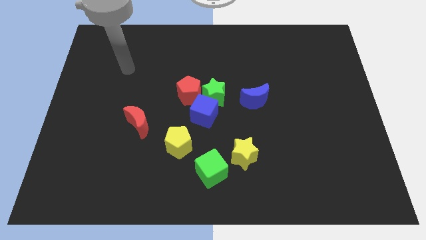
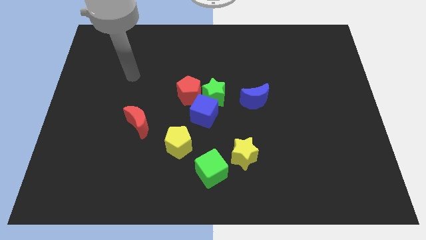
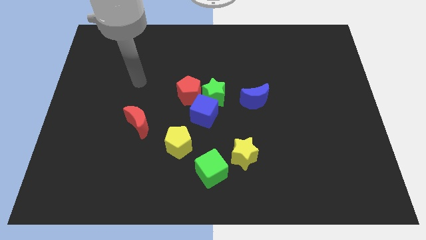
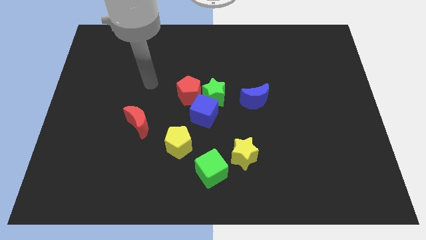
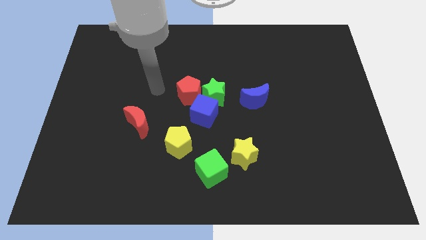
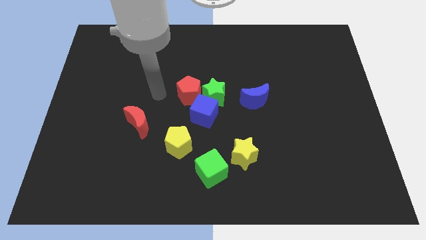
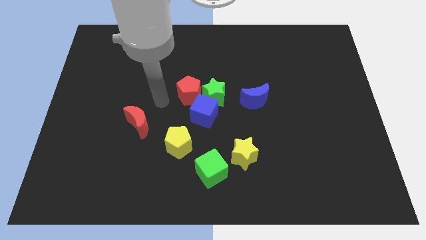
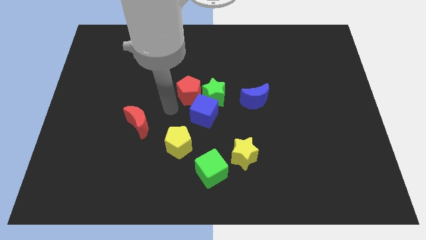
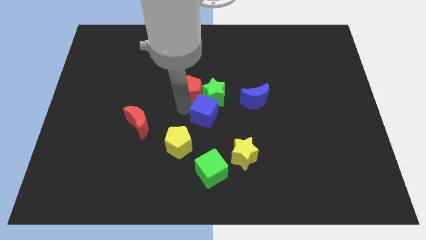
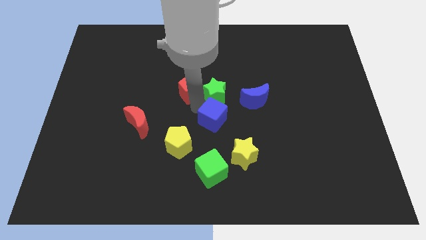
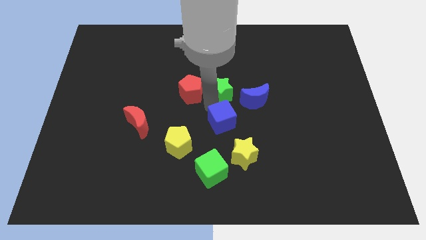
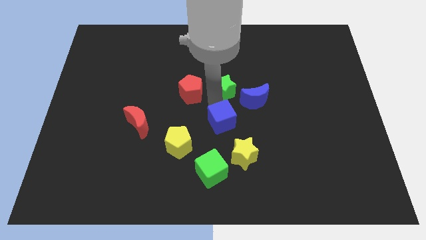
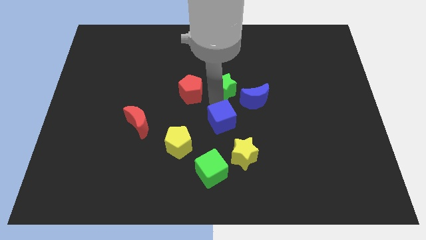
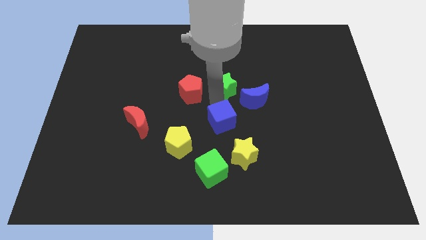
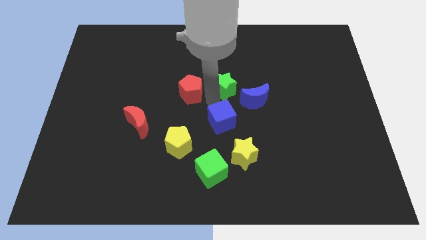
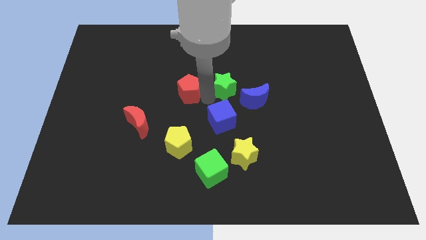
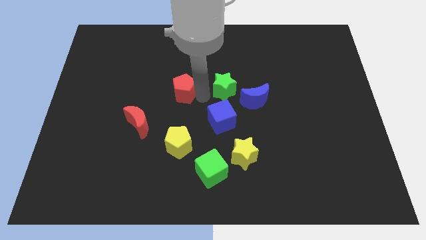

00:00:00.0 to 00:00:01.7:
pull the red pentagon apart from the green star and blue cube

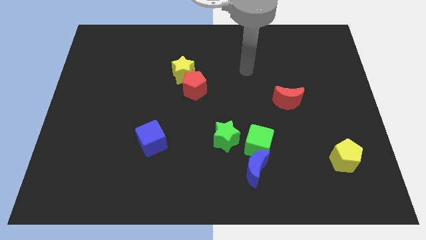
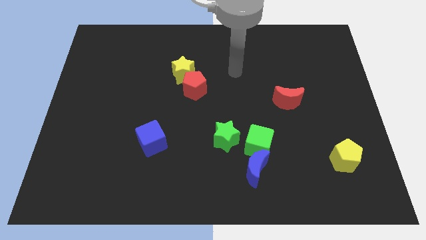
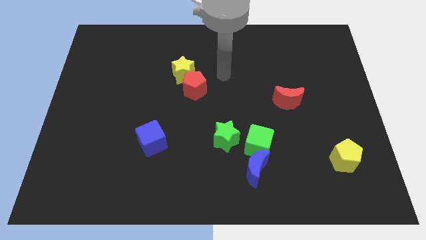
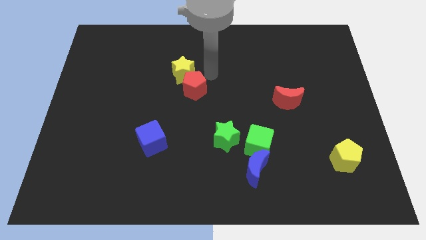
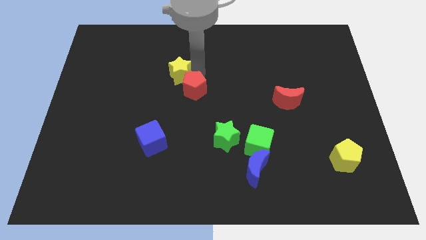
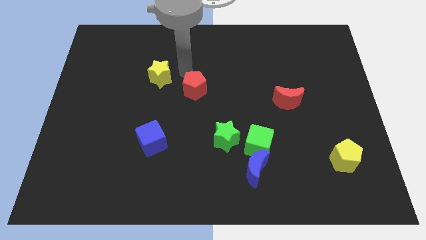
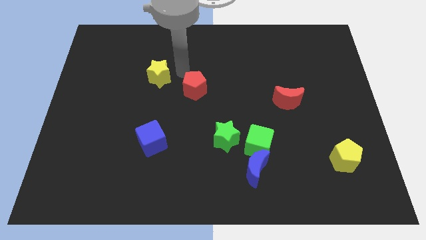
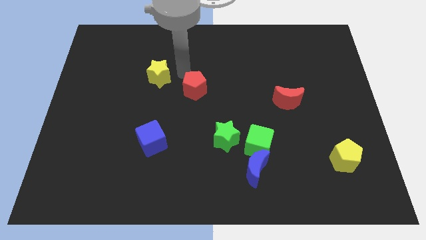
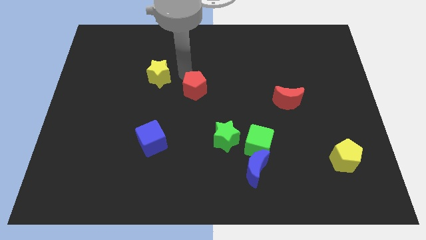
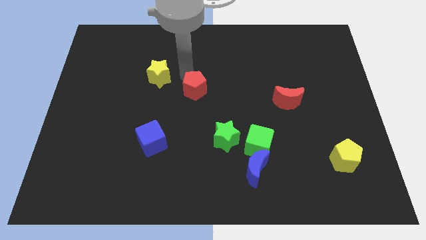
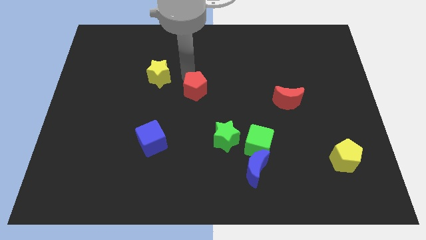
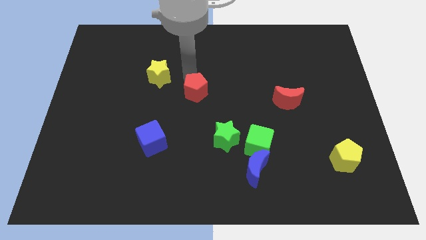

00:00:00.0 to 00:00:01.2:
separate the red pentagon from the yellow star

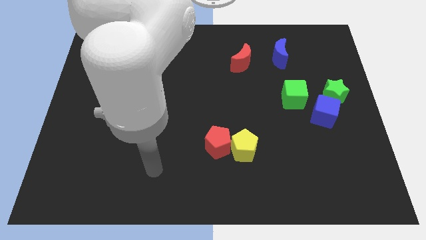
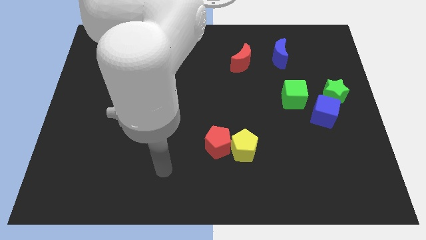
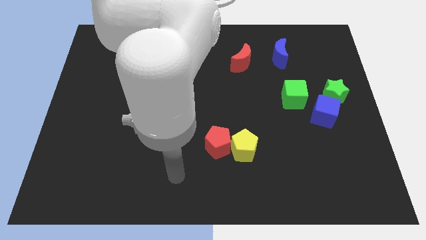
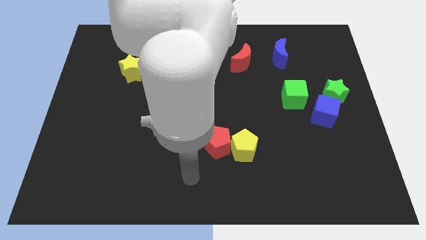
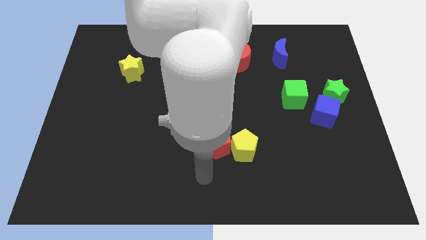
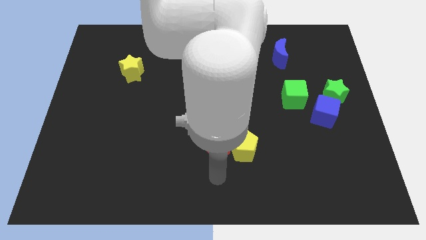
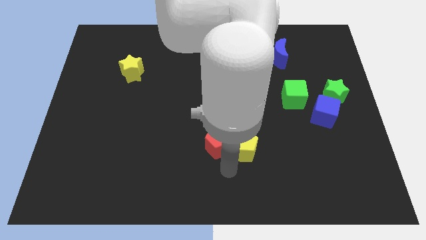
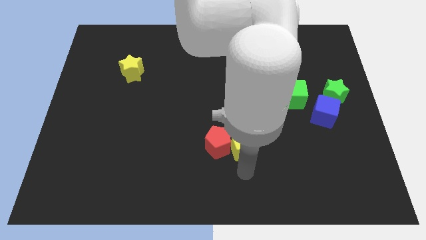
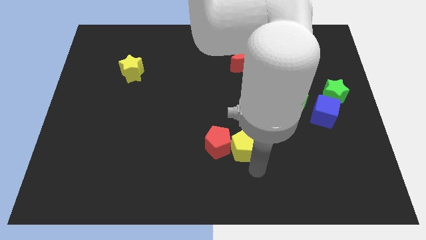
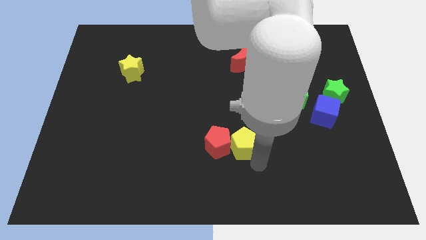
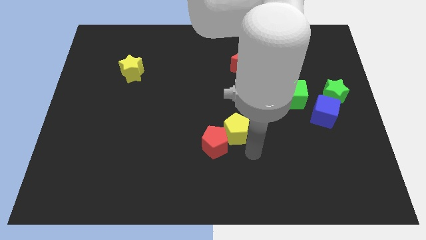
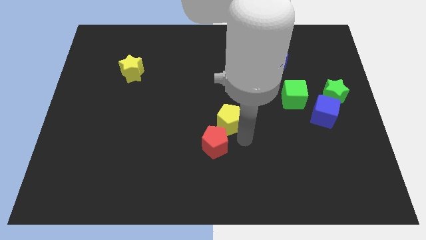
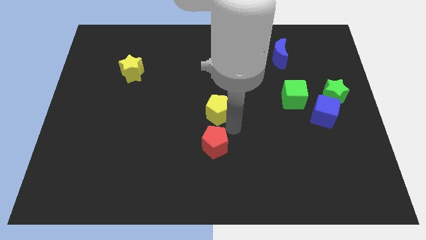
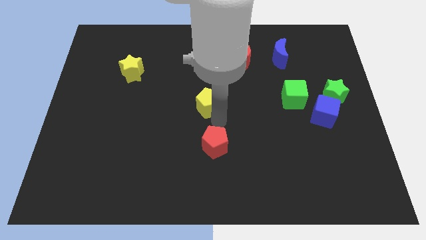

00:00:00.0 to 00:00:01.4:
separate the red pentagon from the yellow pentagon

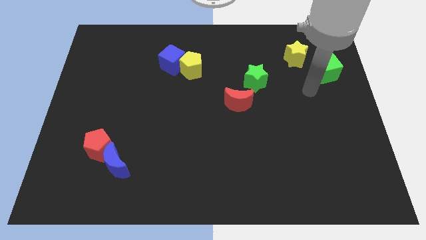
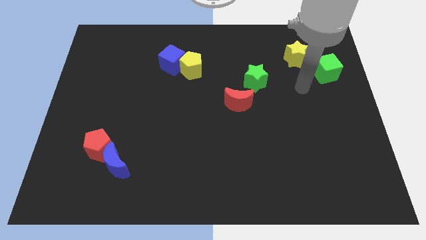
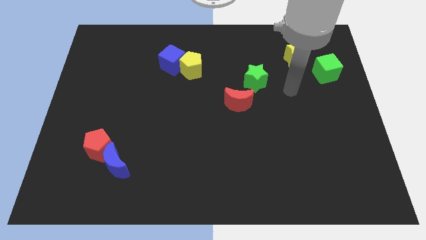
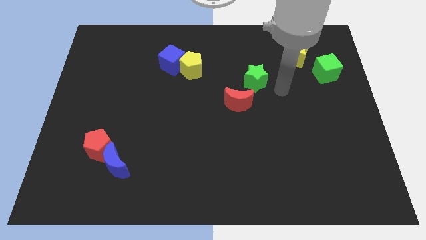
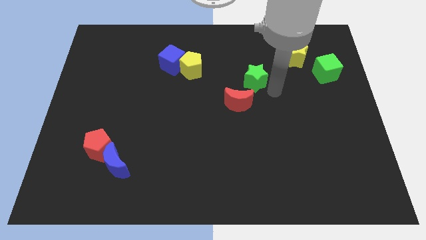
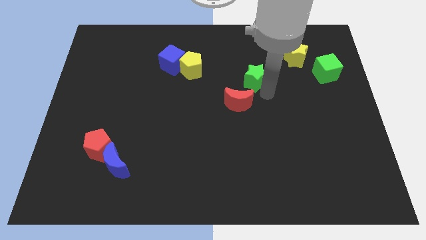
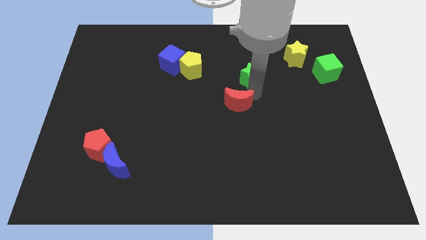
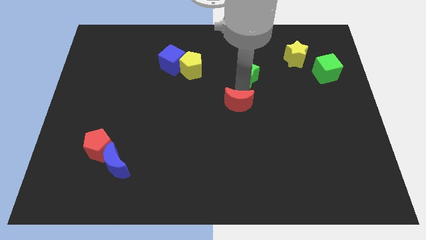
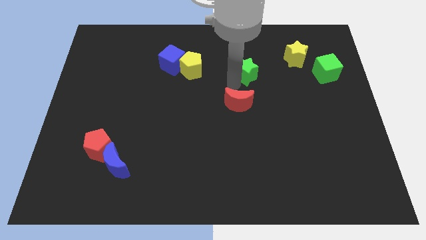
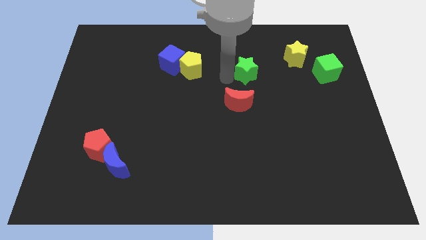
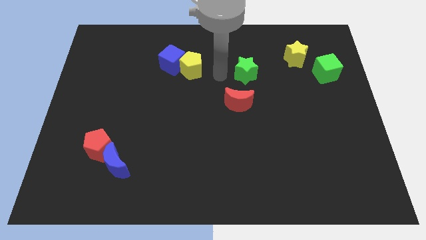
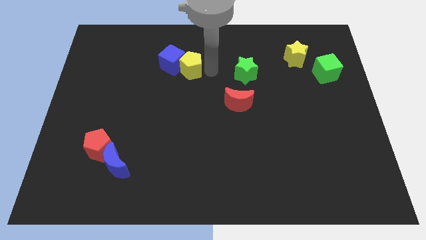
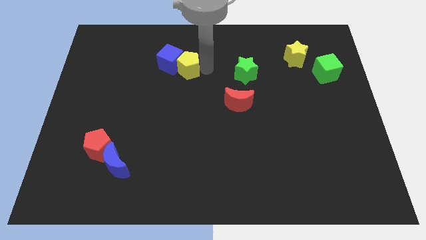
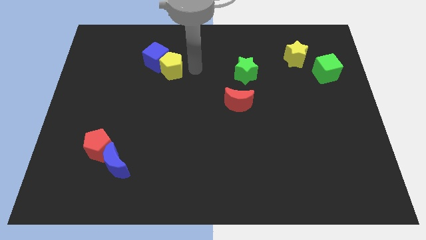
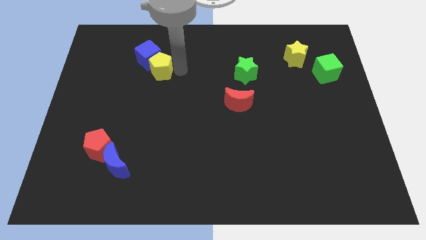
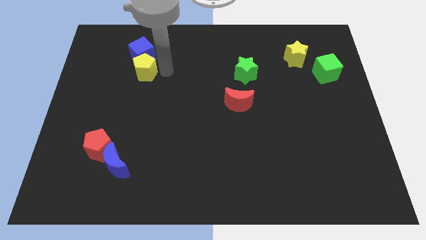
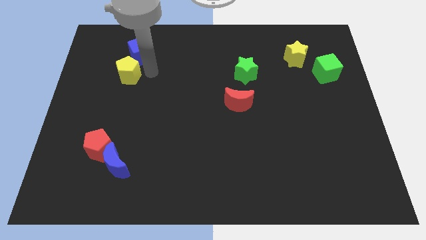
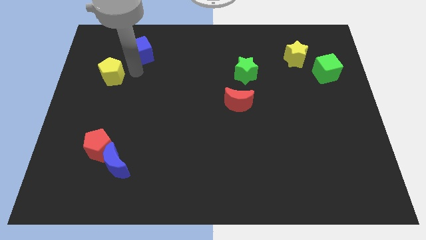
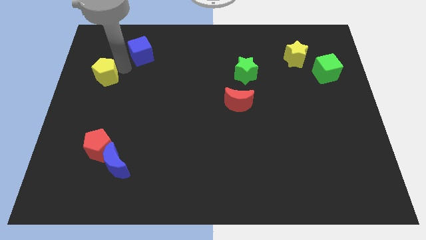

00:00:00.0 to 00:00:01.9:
separate the blue cube from the yellow pentagon

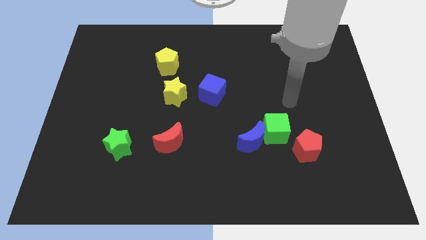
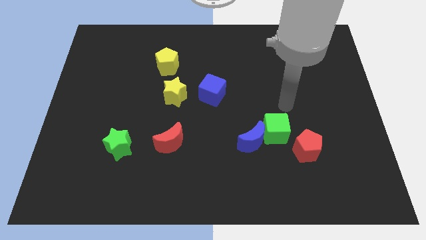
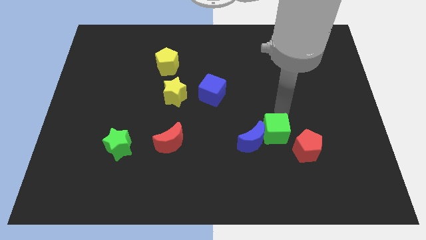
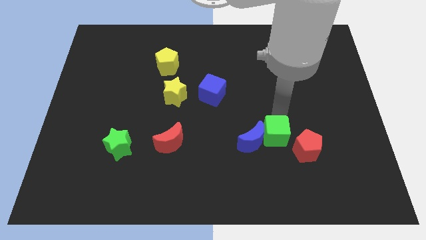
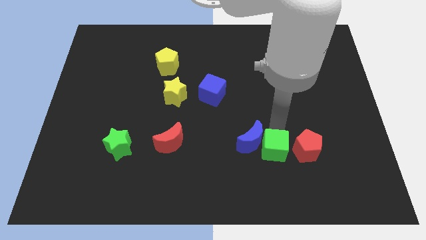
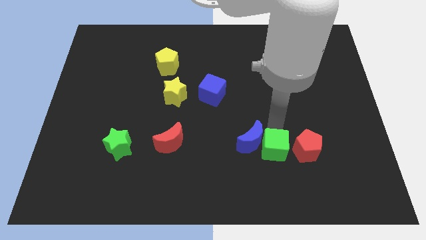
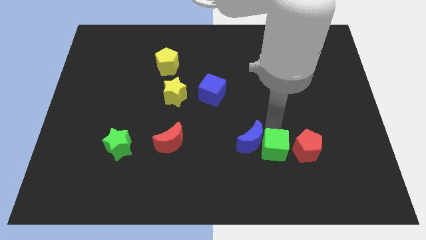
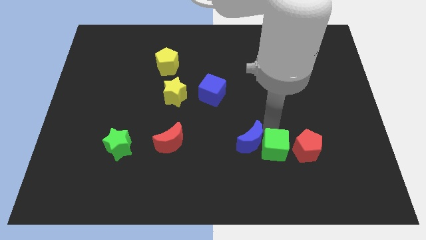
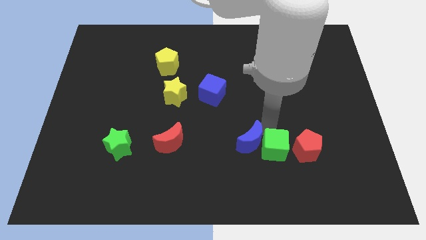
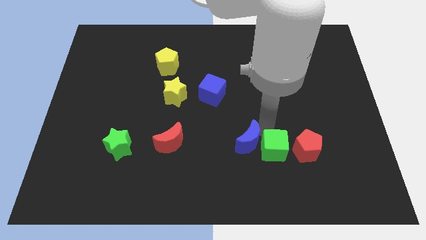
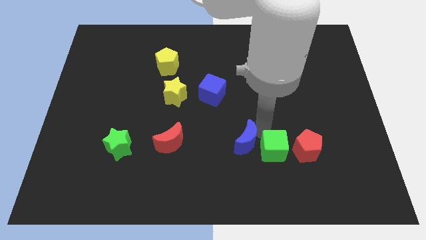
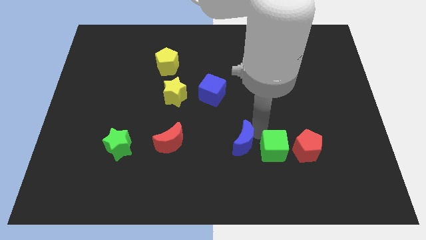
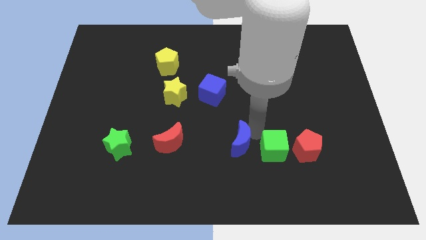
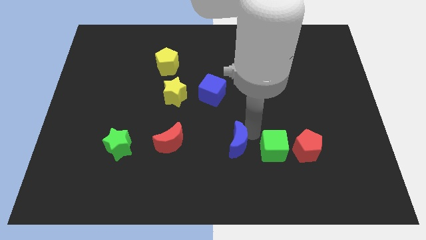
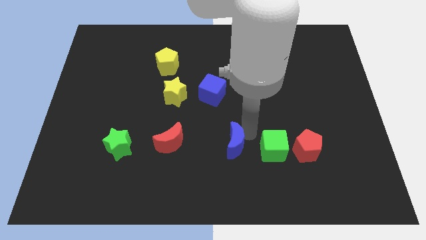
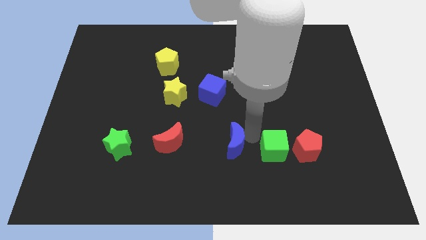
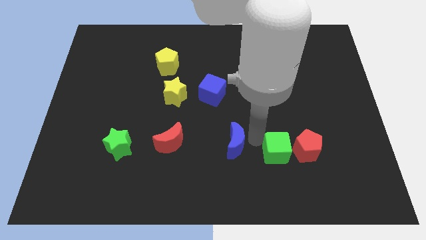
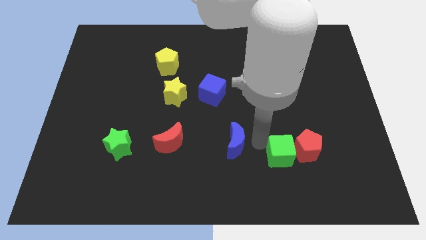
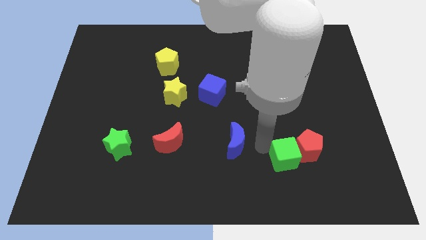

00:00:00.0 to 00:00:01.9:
pull the blue moon apart from the green cube

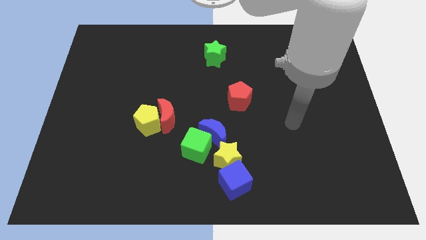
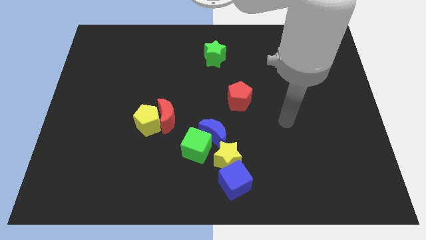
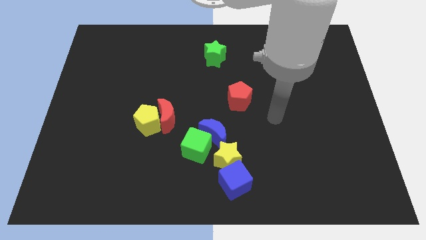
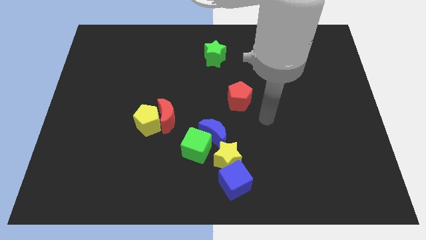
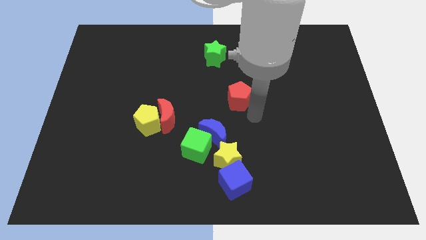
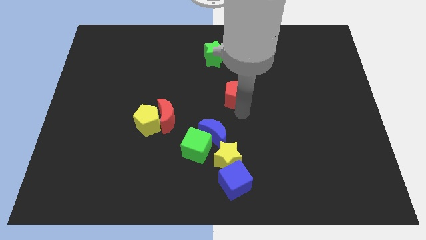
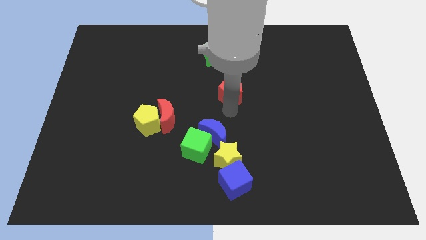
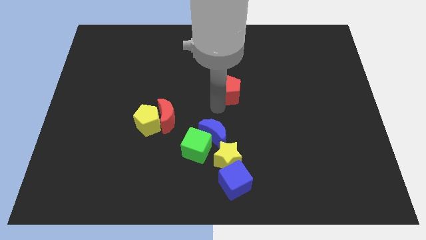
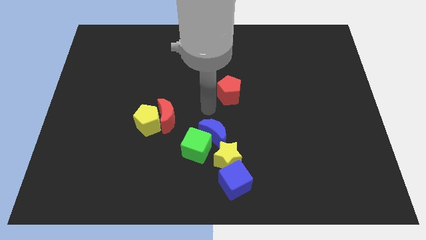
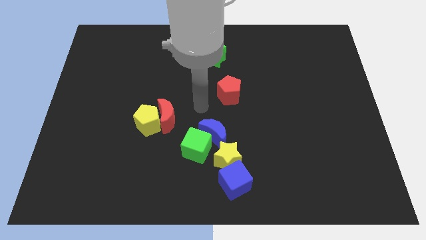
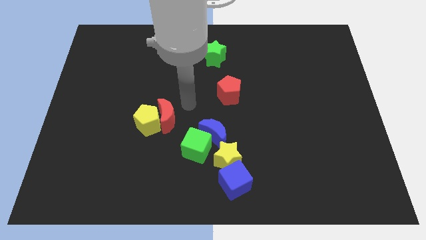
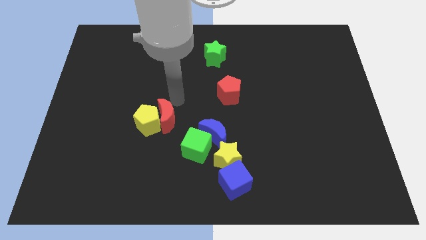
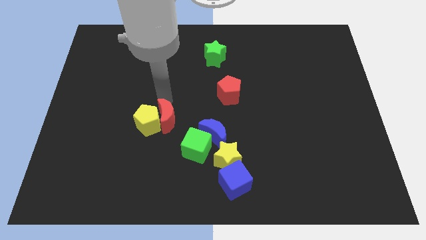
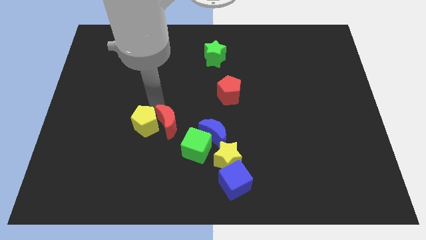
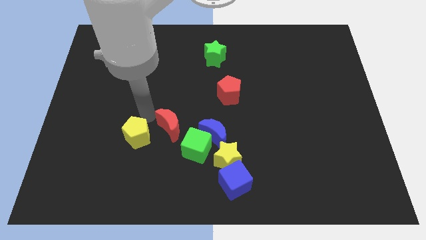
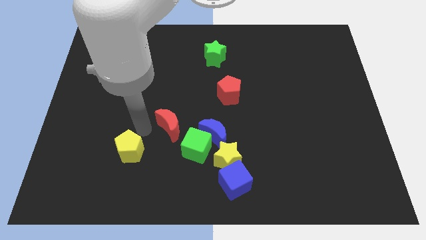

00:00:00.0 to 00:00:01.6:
separate the red moon from the yellow pentagon
